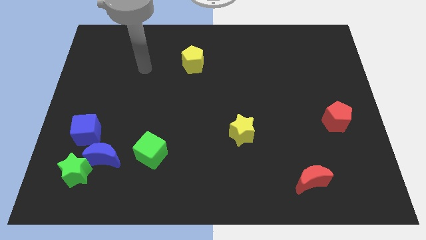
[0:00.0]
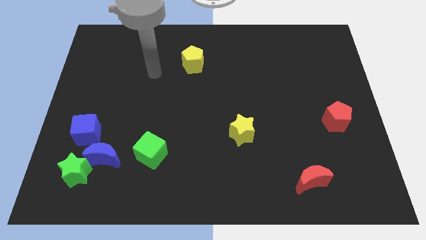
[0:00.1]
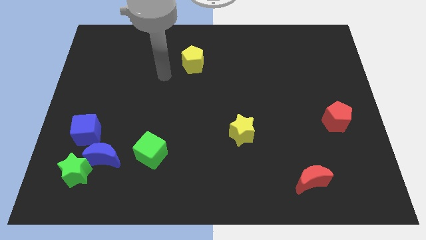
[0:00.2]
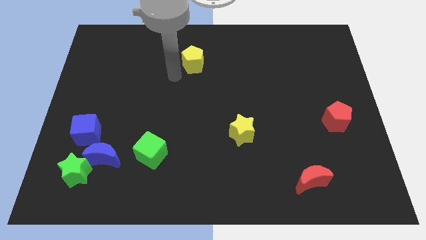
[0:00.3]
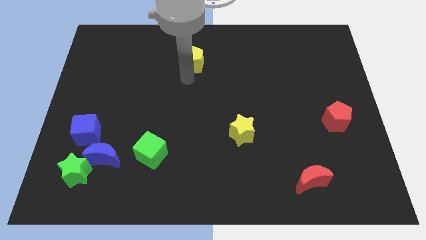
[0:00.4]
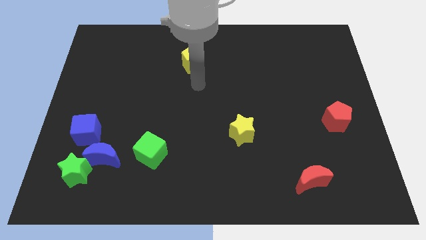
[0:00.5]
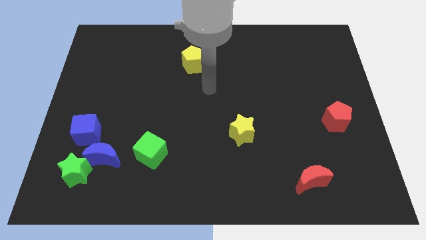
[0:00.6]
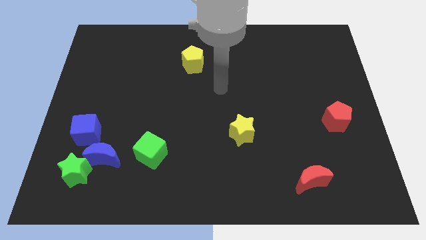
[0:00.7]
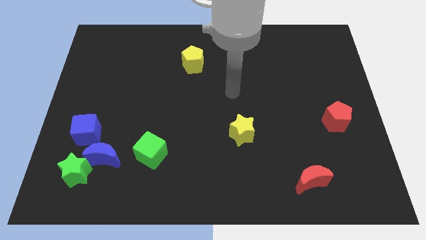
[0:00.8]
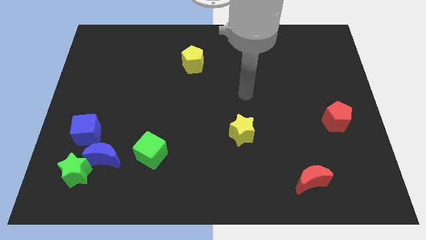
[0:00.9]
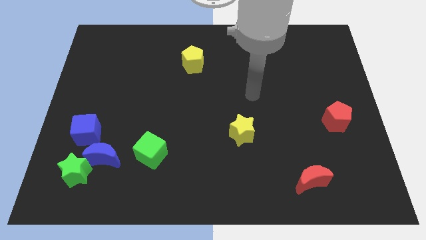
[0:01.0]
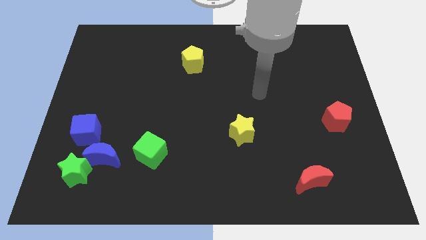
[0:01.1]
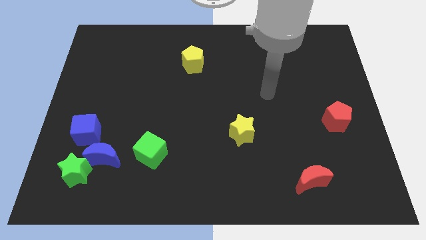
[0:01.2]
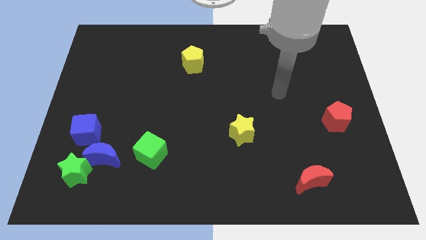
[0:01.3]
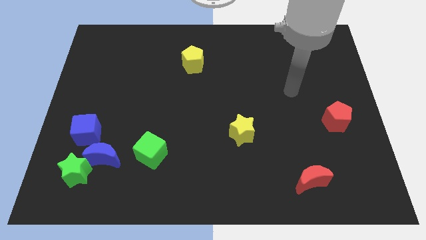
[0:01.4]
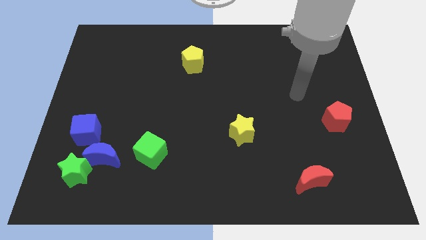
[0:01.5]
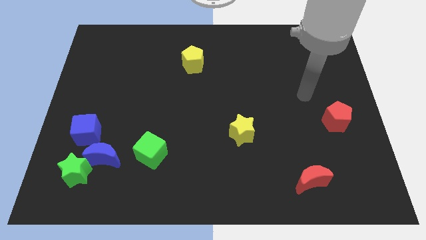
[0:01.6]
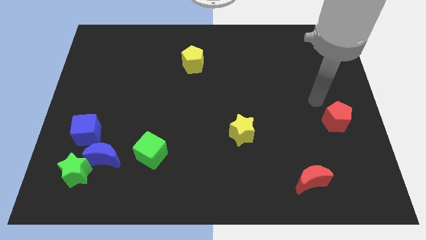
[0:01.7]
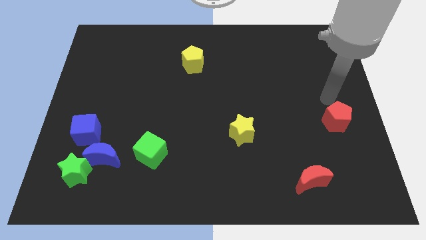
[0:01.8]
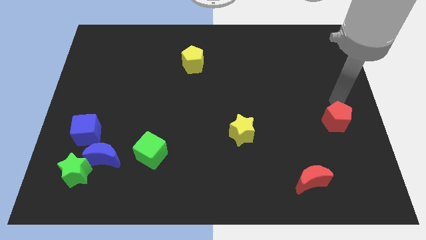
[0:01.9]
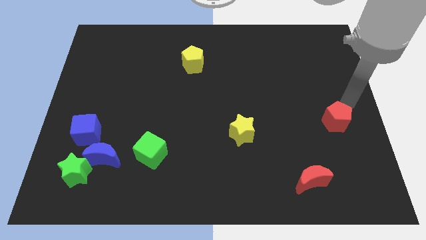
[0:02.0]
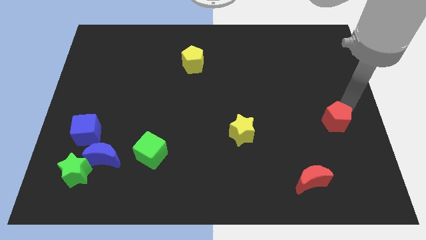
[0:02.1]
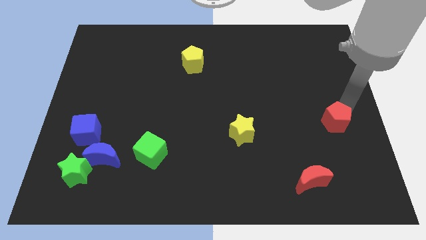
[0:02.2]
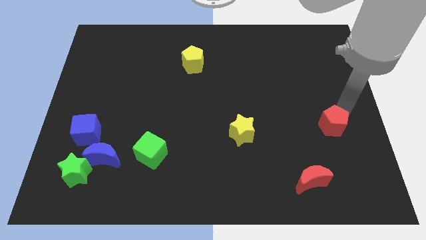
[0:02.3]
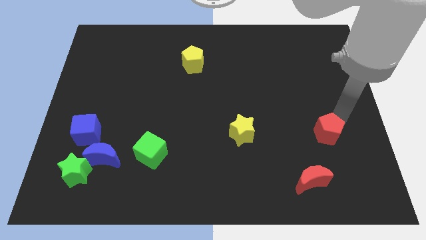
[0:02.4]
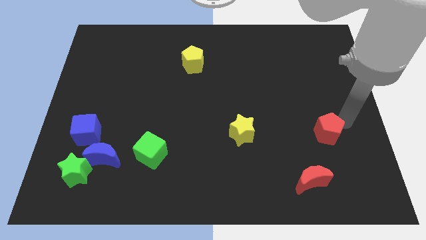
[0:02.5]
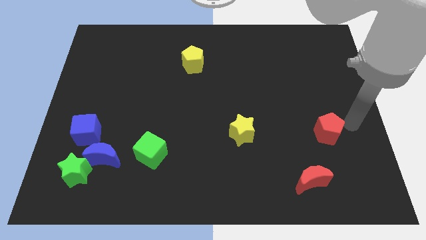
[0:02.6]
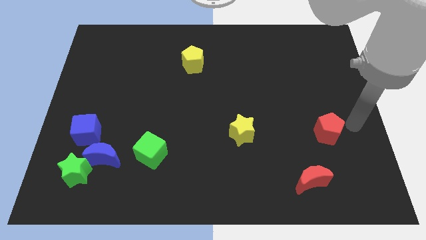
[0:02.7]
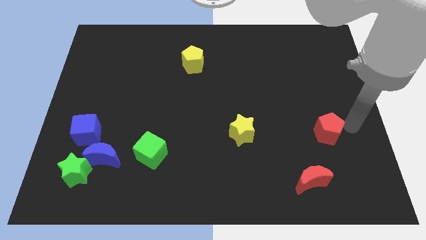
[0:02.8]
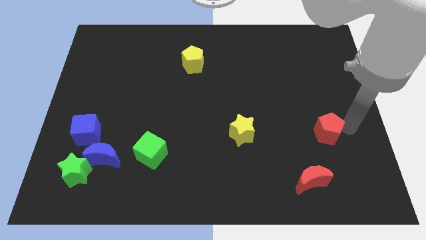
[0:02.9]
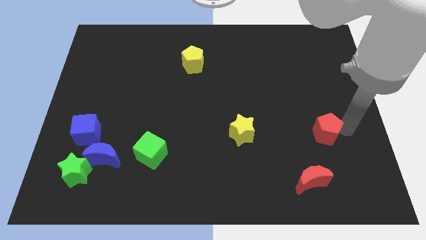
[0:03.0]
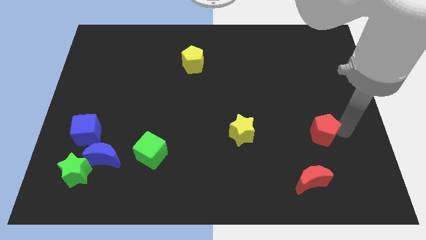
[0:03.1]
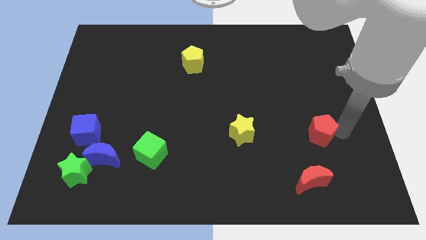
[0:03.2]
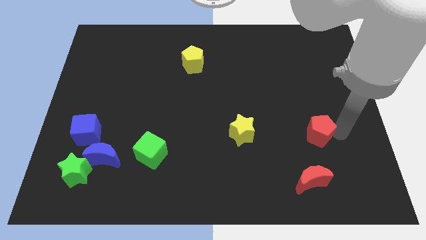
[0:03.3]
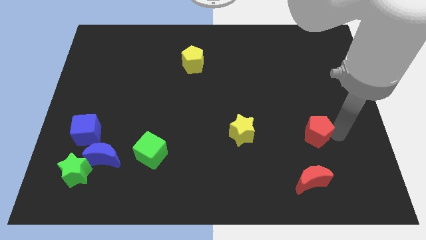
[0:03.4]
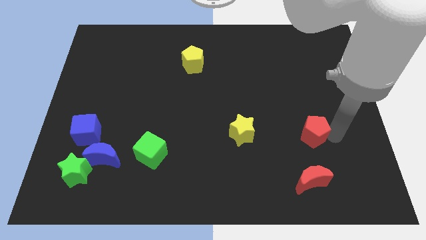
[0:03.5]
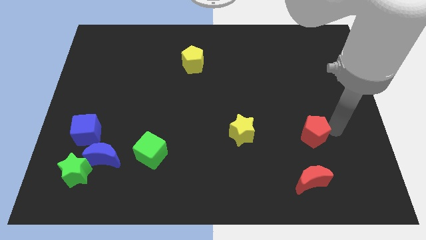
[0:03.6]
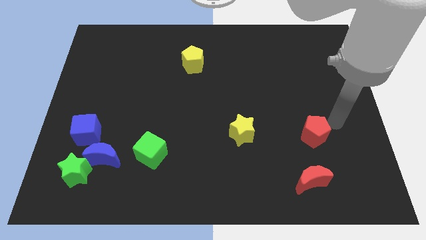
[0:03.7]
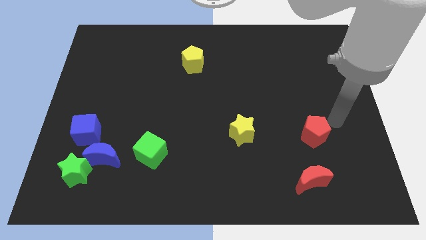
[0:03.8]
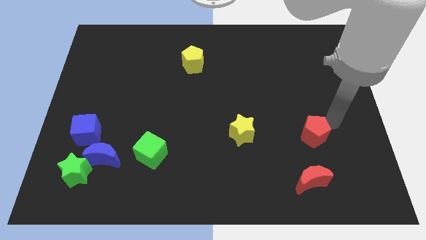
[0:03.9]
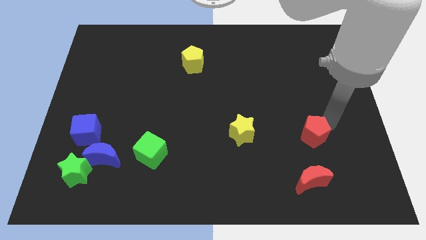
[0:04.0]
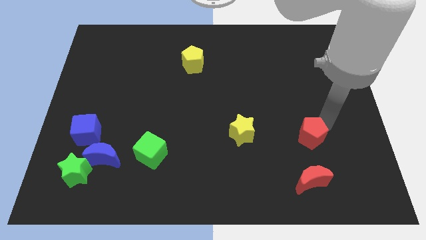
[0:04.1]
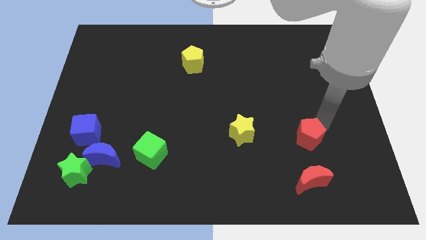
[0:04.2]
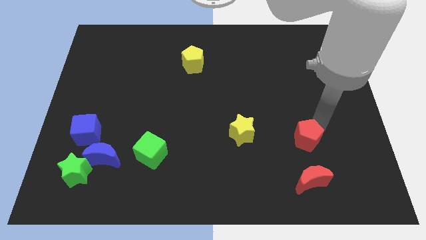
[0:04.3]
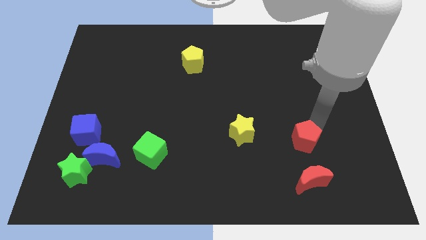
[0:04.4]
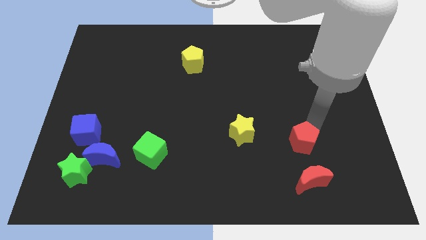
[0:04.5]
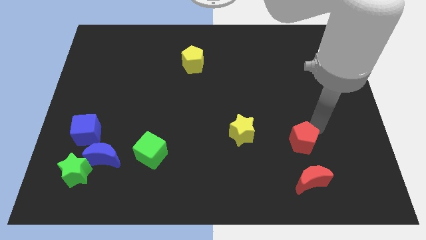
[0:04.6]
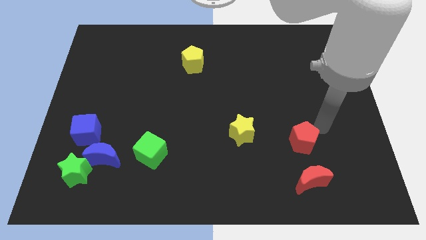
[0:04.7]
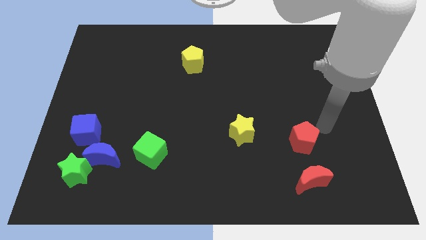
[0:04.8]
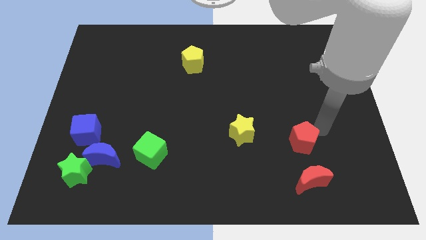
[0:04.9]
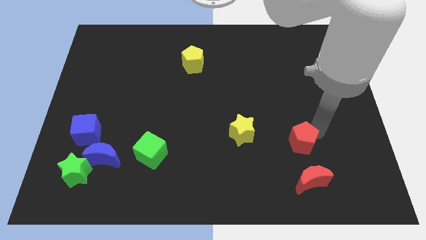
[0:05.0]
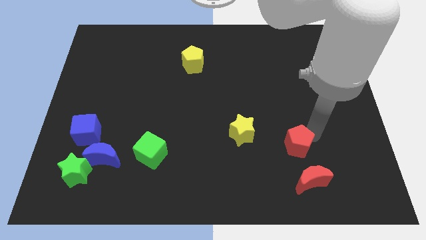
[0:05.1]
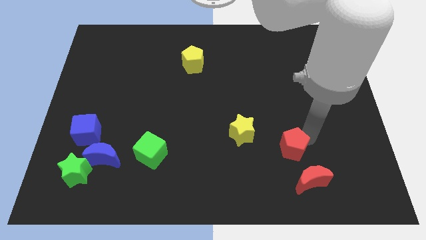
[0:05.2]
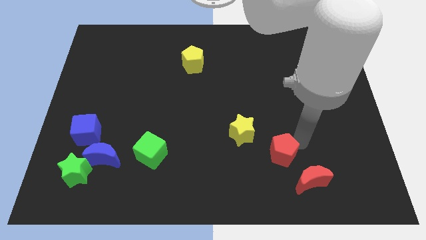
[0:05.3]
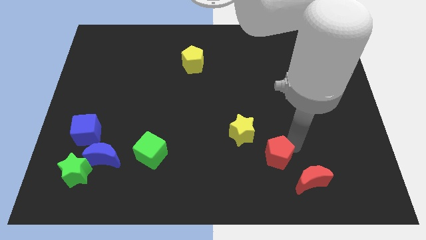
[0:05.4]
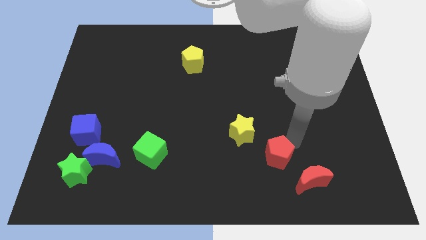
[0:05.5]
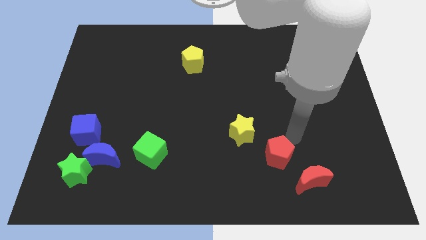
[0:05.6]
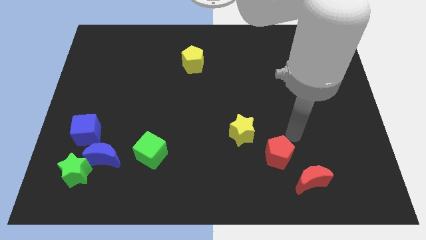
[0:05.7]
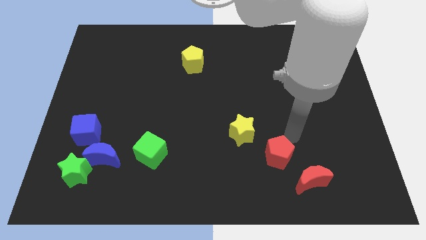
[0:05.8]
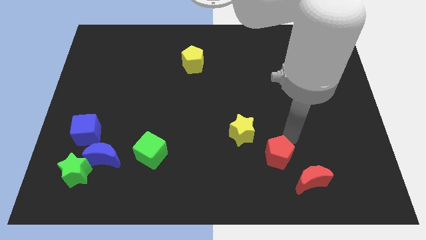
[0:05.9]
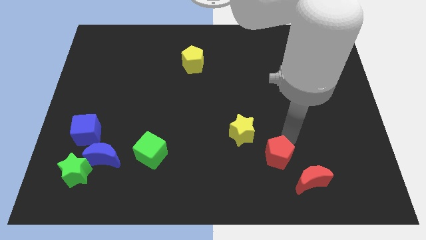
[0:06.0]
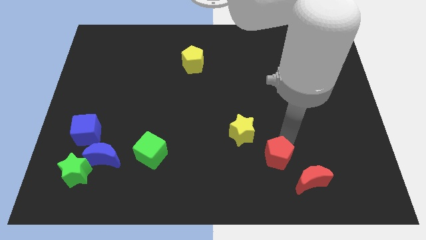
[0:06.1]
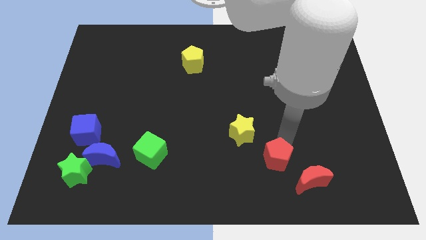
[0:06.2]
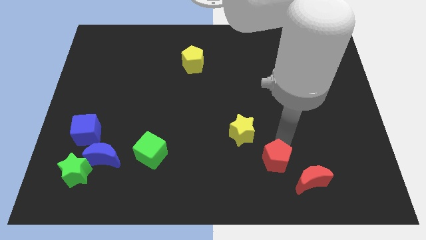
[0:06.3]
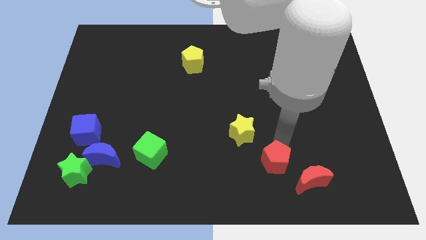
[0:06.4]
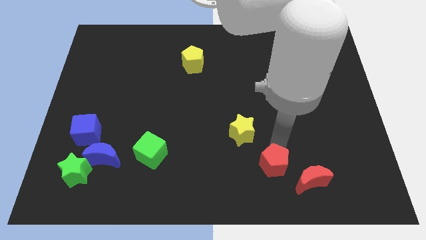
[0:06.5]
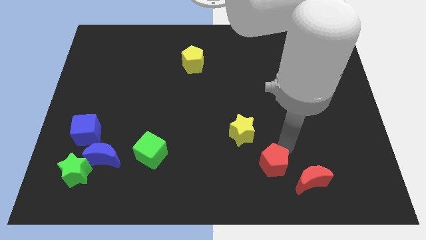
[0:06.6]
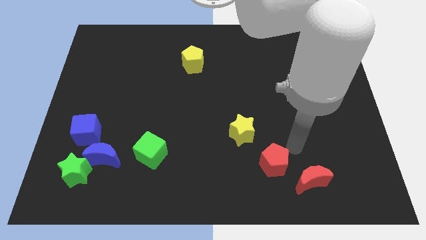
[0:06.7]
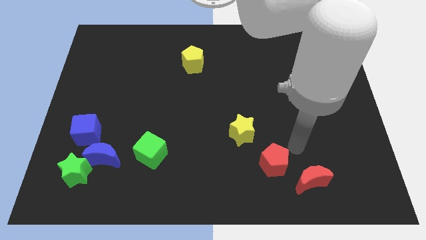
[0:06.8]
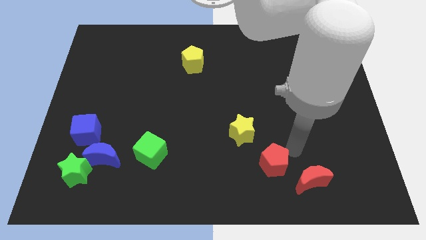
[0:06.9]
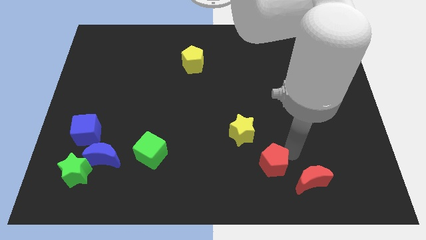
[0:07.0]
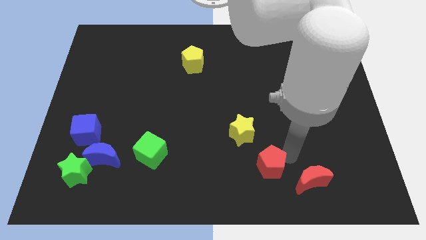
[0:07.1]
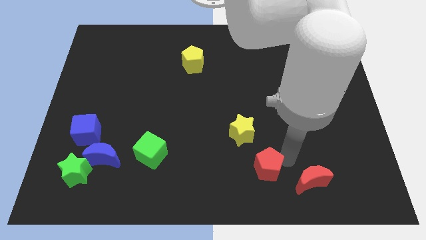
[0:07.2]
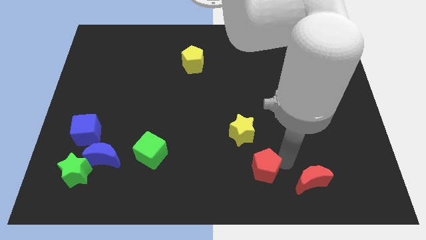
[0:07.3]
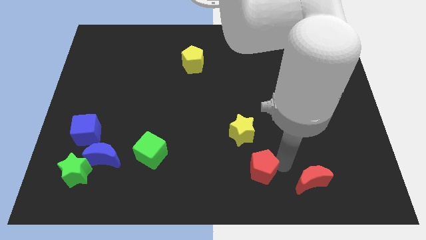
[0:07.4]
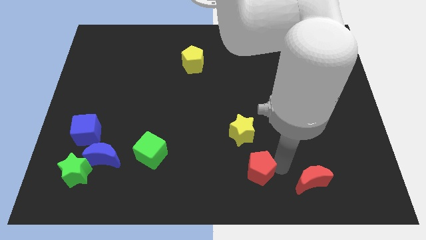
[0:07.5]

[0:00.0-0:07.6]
put the red pentagon to the bottom side
